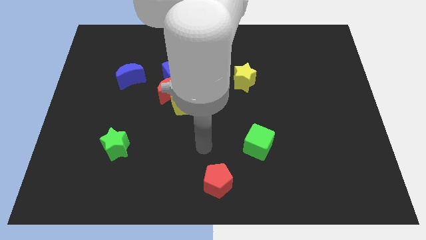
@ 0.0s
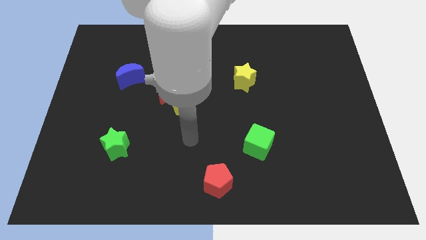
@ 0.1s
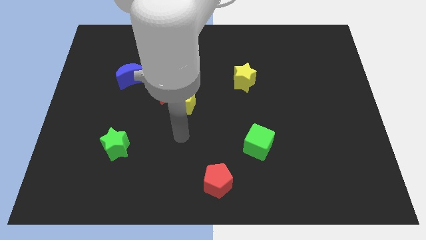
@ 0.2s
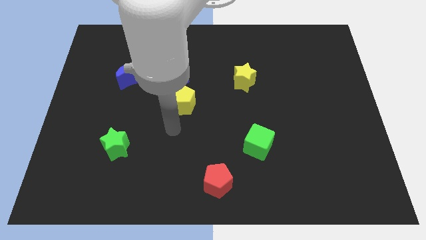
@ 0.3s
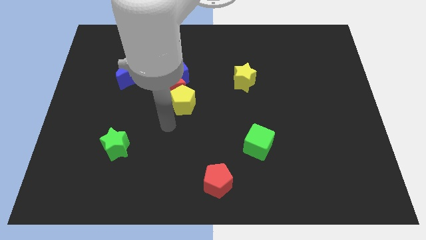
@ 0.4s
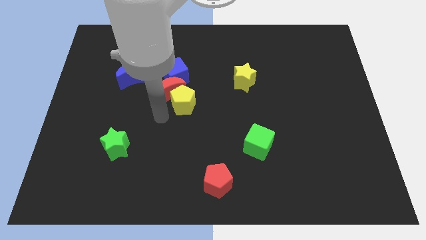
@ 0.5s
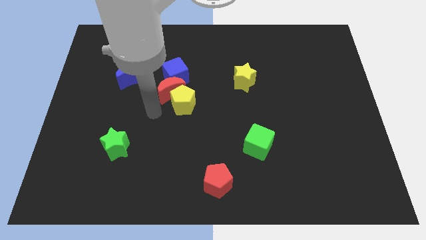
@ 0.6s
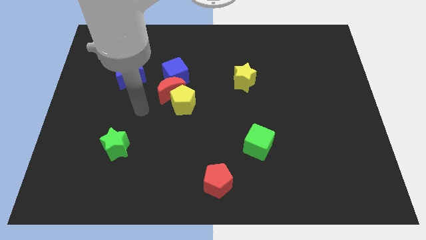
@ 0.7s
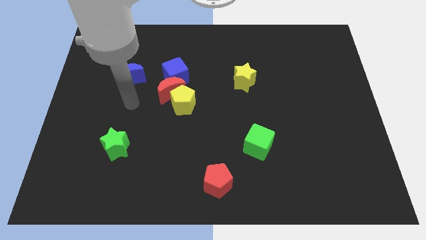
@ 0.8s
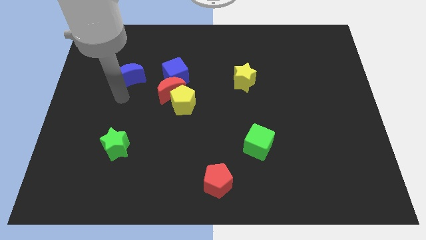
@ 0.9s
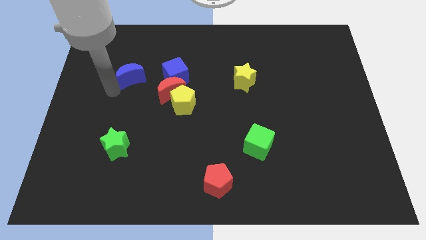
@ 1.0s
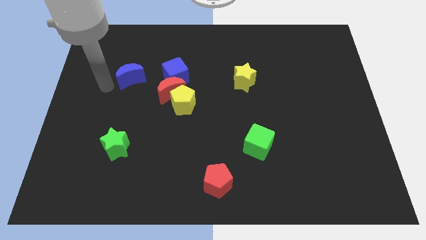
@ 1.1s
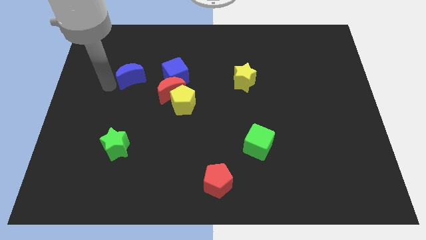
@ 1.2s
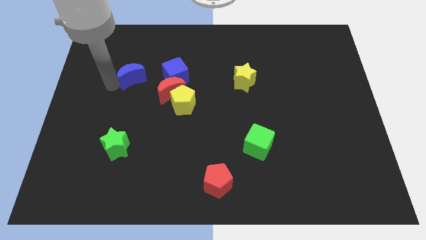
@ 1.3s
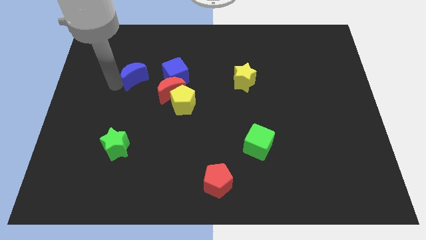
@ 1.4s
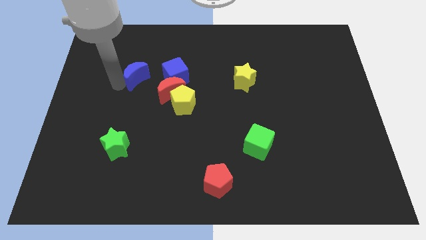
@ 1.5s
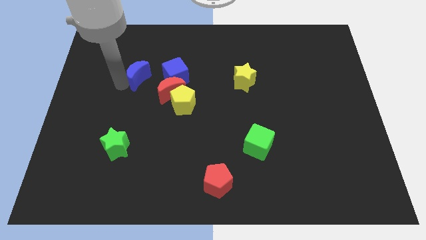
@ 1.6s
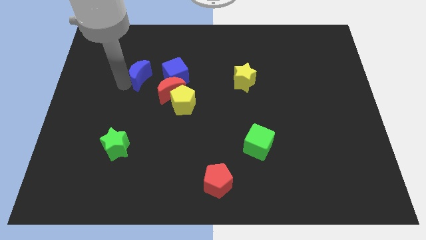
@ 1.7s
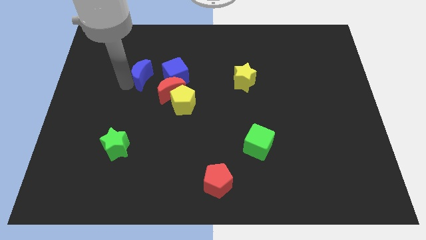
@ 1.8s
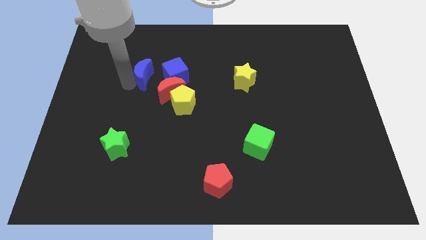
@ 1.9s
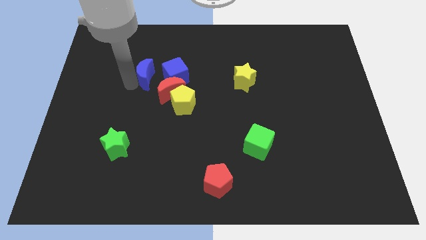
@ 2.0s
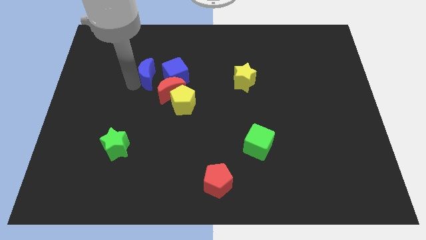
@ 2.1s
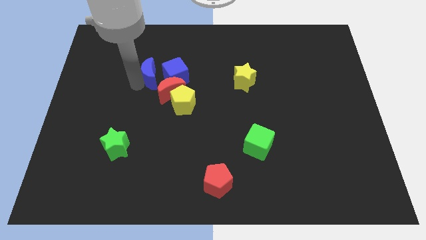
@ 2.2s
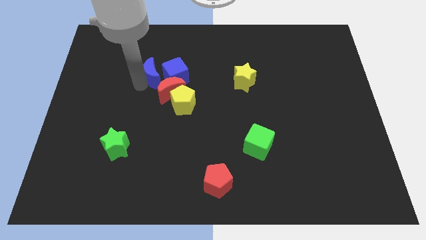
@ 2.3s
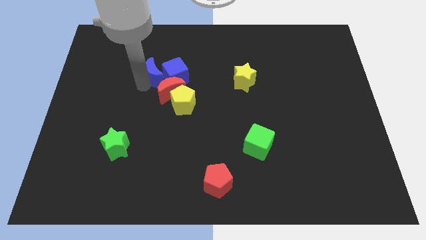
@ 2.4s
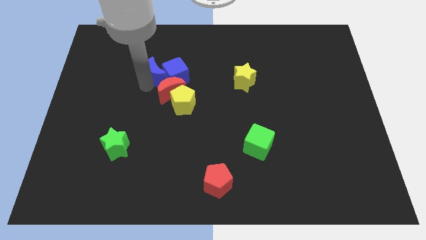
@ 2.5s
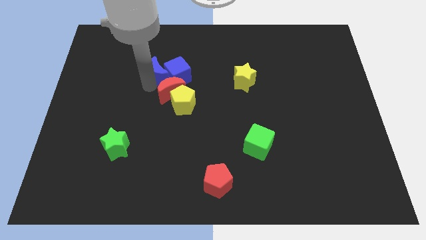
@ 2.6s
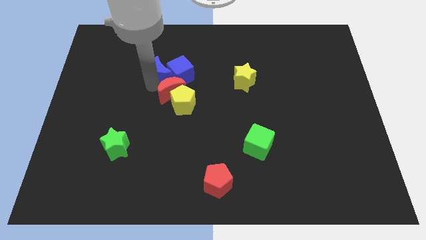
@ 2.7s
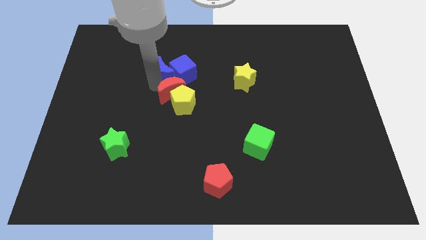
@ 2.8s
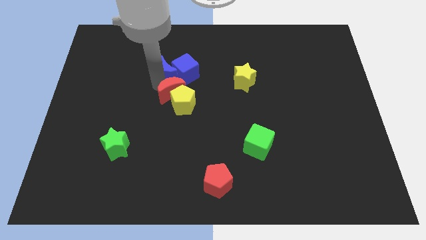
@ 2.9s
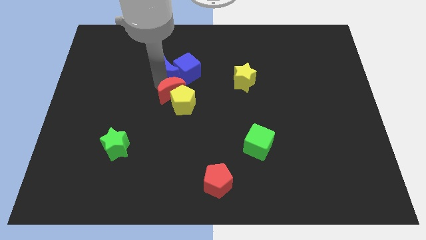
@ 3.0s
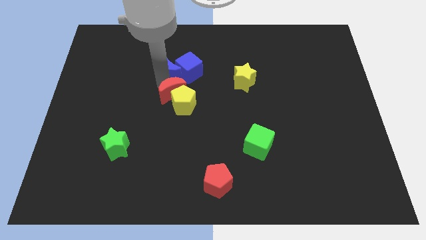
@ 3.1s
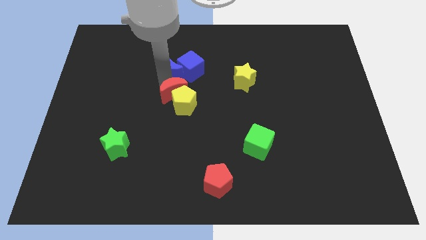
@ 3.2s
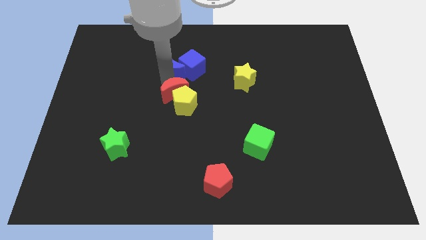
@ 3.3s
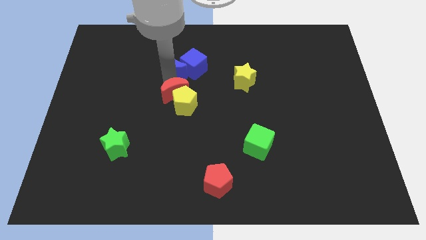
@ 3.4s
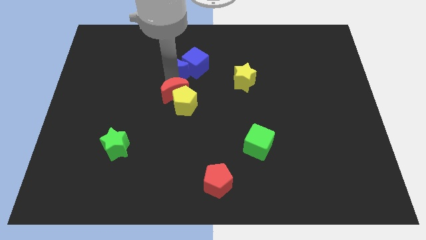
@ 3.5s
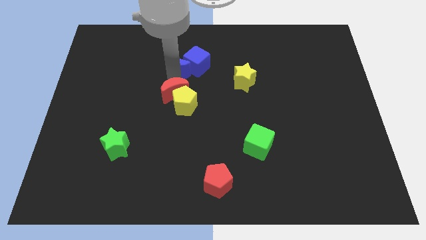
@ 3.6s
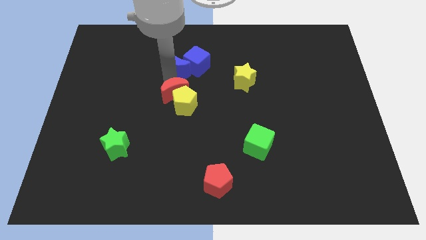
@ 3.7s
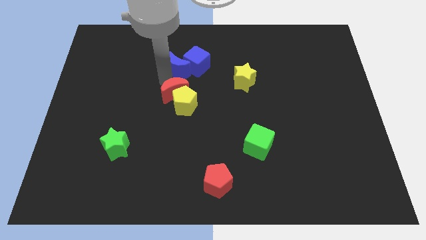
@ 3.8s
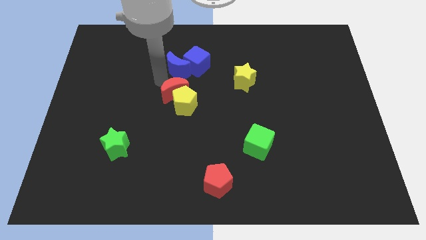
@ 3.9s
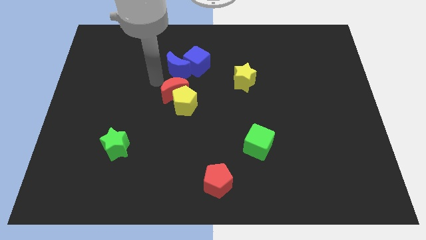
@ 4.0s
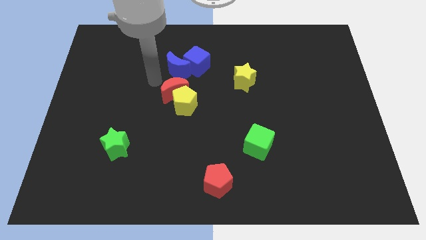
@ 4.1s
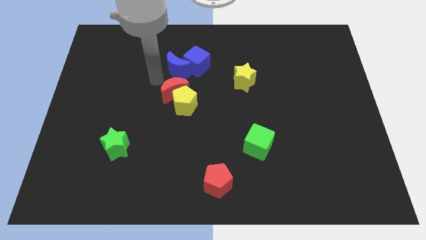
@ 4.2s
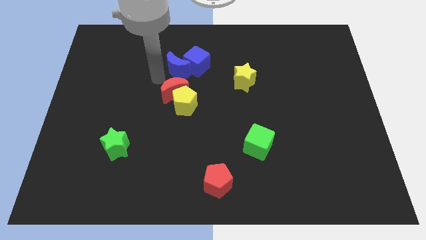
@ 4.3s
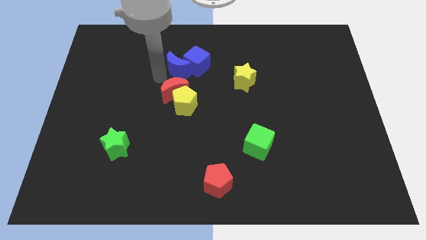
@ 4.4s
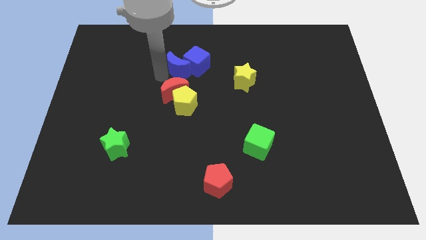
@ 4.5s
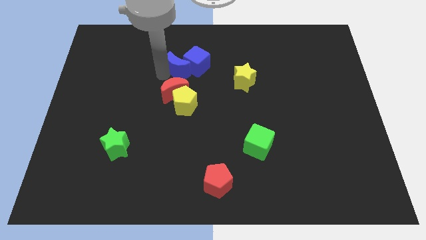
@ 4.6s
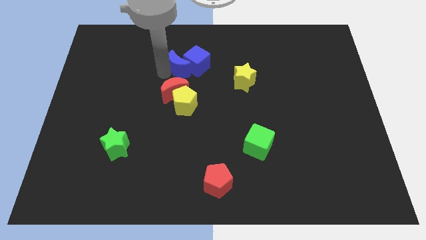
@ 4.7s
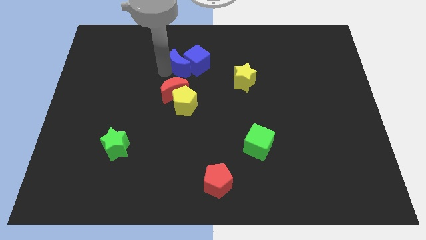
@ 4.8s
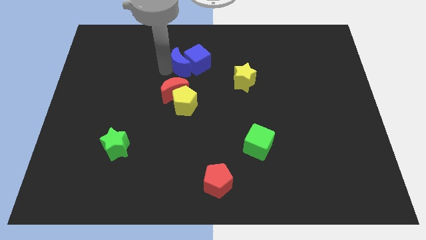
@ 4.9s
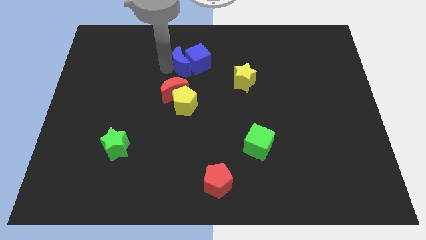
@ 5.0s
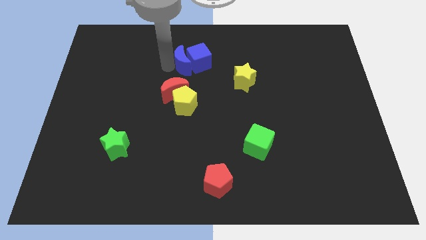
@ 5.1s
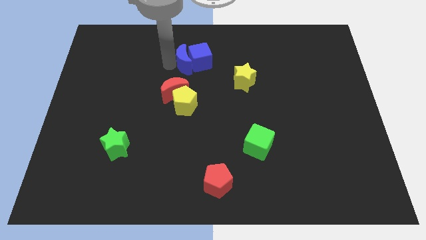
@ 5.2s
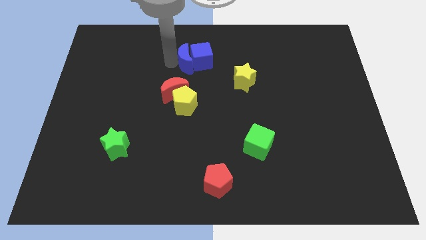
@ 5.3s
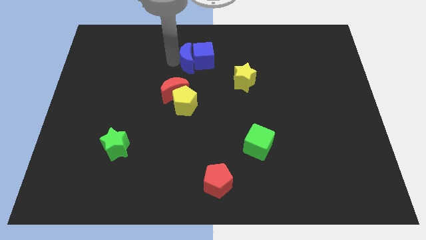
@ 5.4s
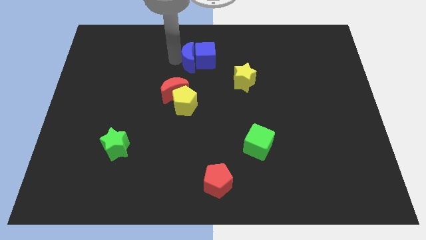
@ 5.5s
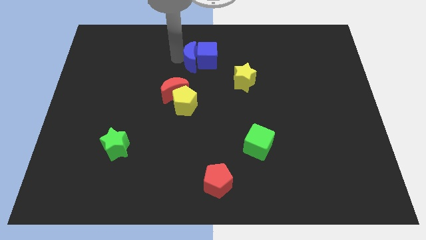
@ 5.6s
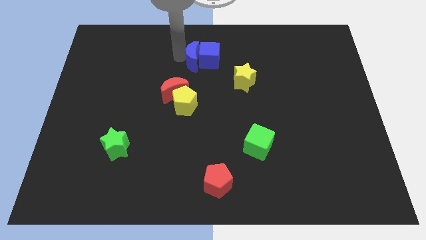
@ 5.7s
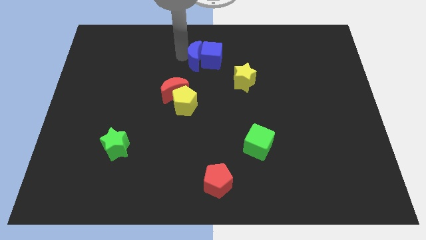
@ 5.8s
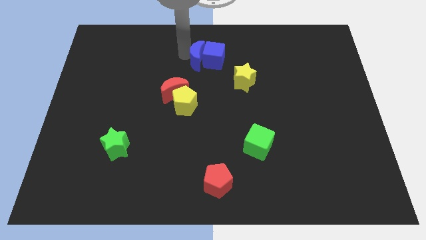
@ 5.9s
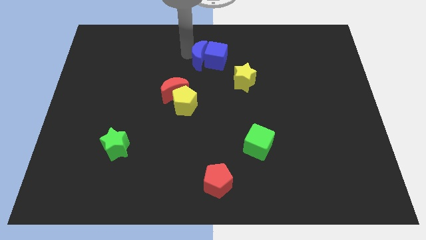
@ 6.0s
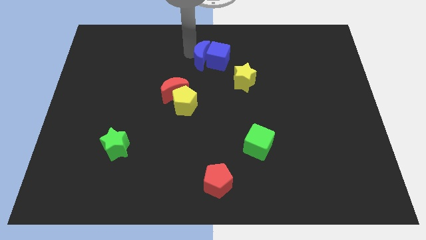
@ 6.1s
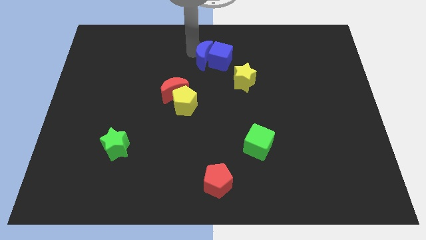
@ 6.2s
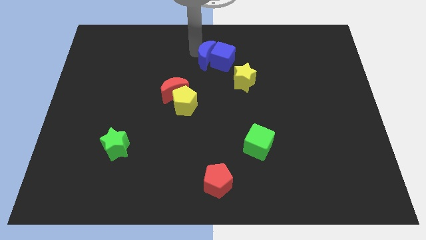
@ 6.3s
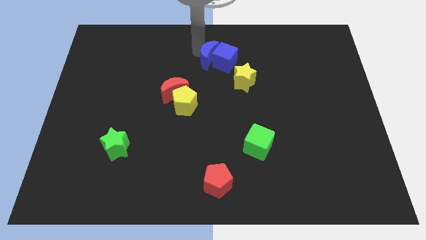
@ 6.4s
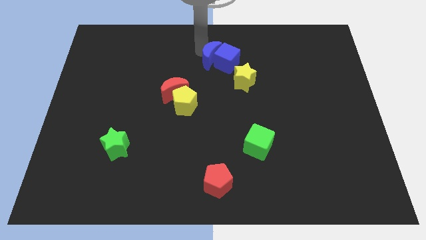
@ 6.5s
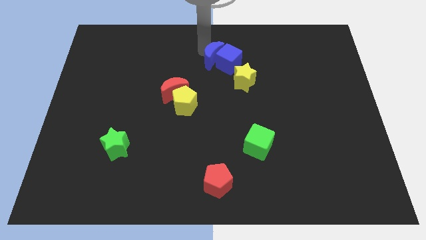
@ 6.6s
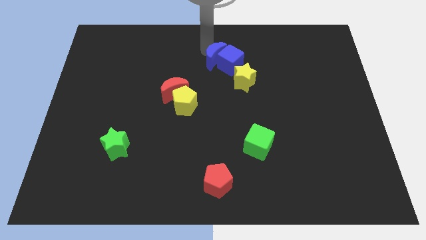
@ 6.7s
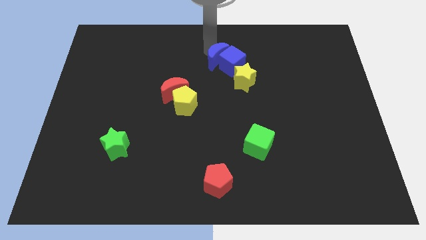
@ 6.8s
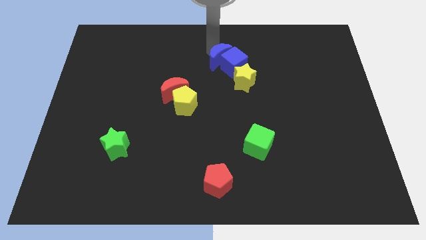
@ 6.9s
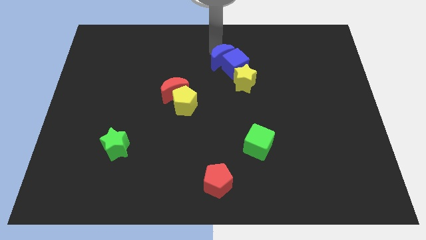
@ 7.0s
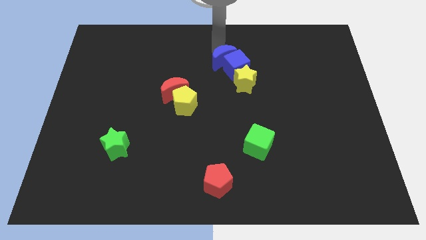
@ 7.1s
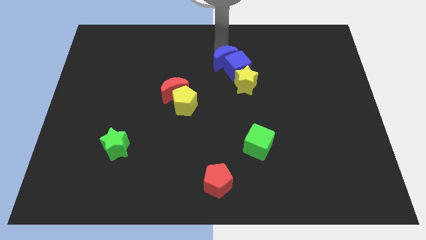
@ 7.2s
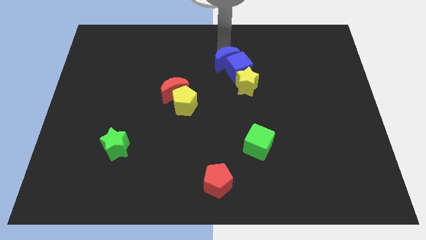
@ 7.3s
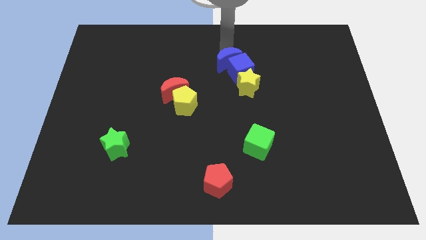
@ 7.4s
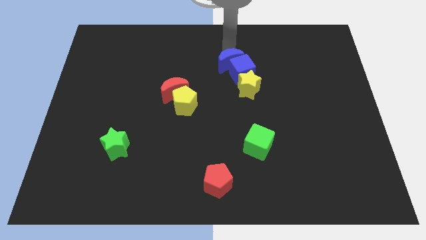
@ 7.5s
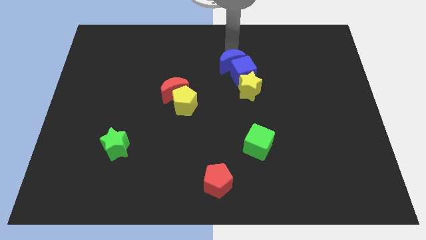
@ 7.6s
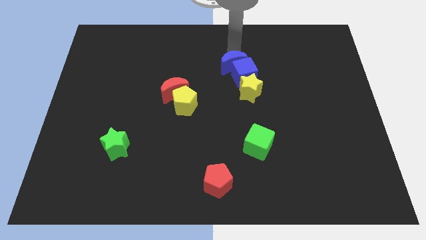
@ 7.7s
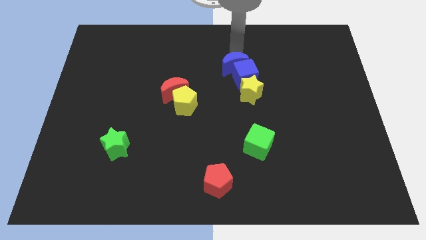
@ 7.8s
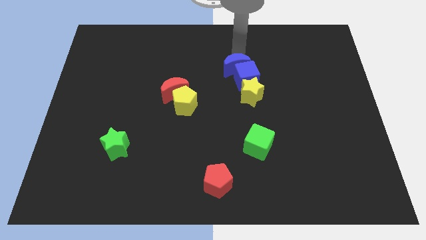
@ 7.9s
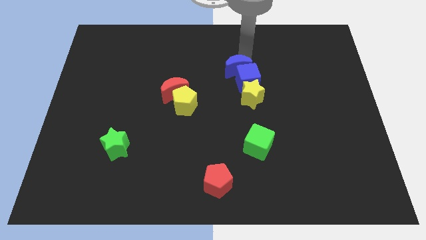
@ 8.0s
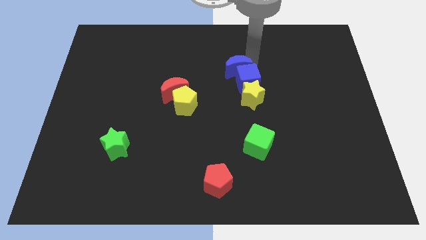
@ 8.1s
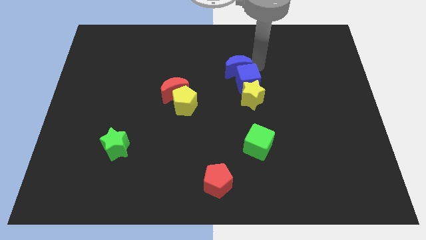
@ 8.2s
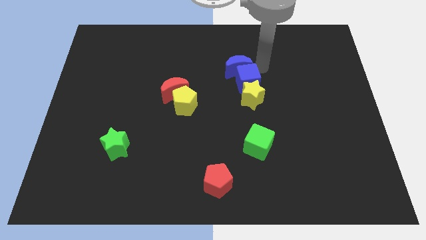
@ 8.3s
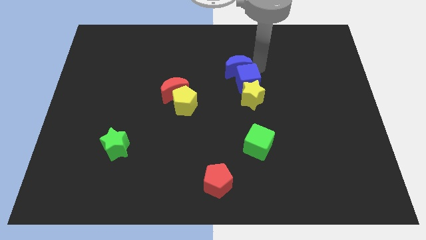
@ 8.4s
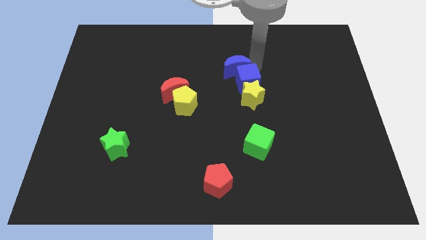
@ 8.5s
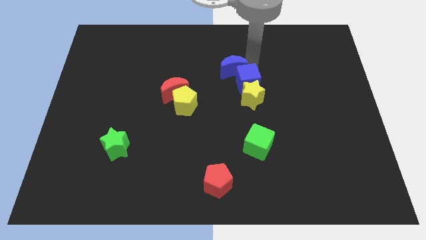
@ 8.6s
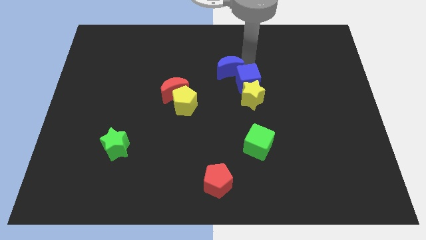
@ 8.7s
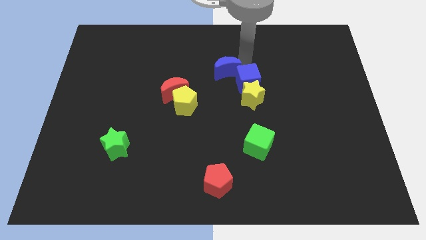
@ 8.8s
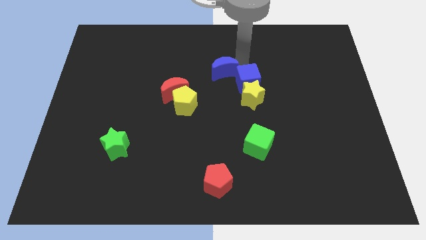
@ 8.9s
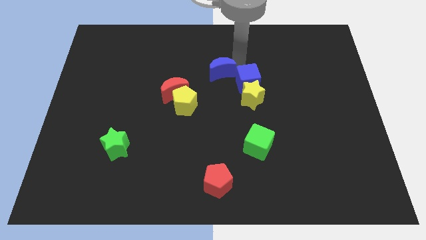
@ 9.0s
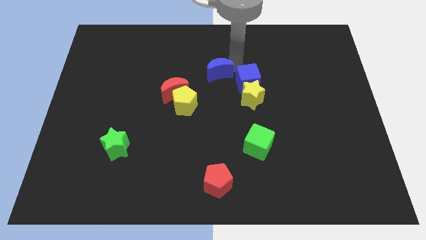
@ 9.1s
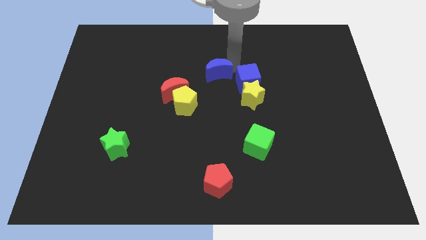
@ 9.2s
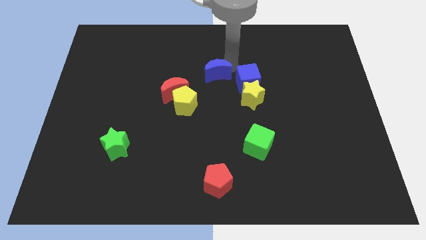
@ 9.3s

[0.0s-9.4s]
put the blue moon diagonally up and to the right of the yellow pentagon
